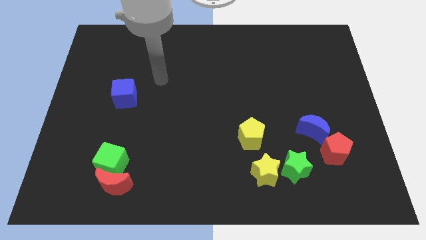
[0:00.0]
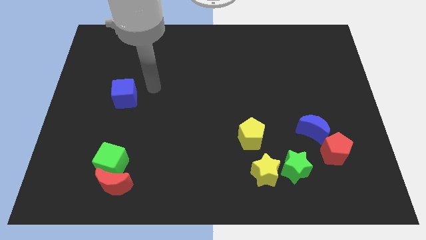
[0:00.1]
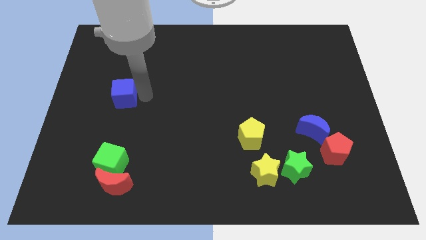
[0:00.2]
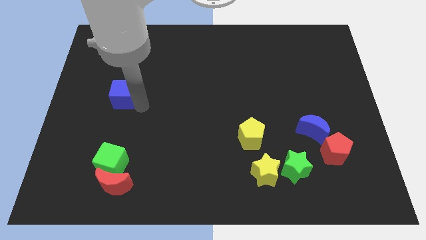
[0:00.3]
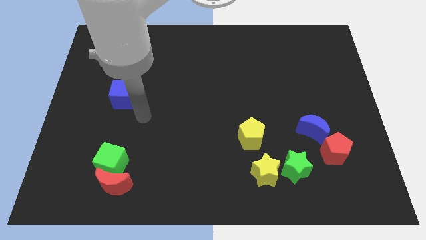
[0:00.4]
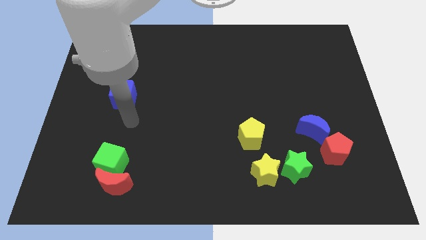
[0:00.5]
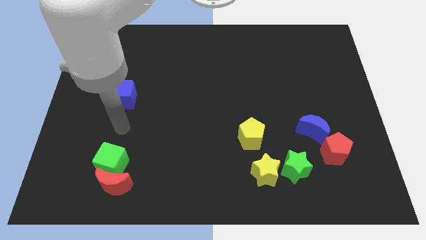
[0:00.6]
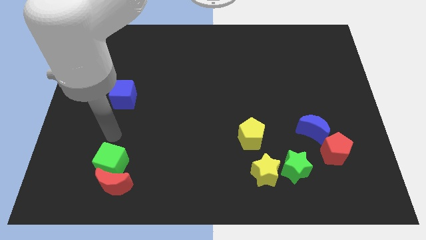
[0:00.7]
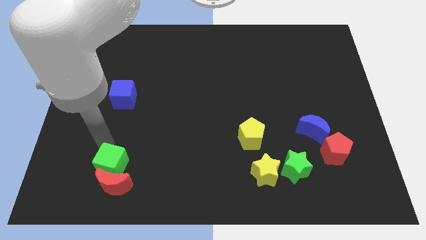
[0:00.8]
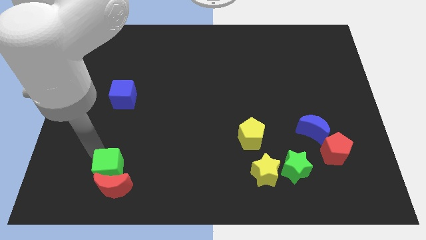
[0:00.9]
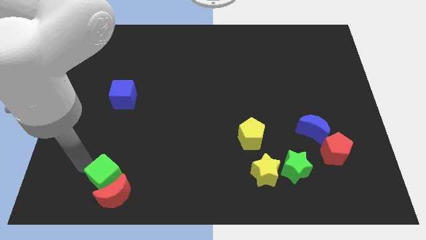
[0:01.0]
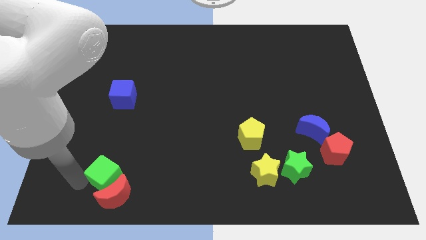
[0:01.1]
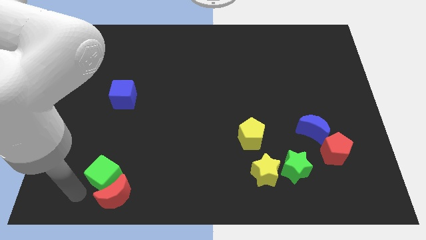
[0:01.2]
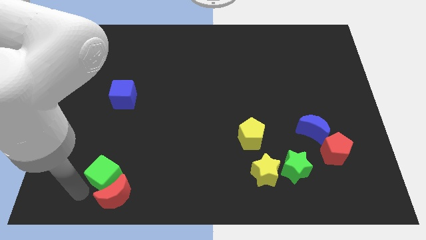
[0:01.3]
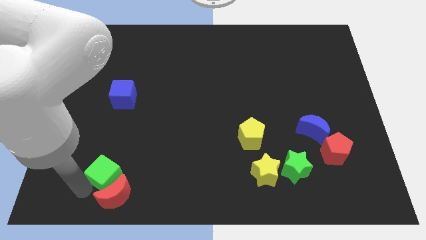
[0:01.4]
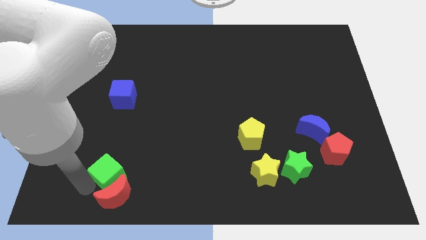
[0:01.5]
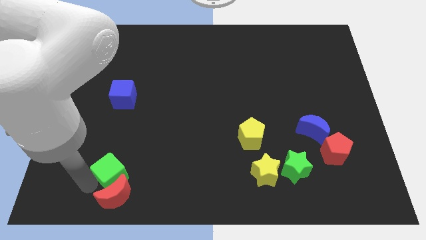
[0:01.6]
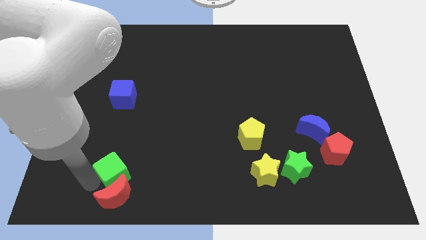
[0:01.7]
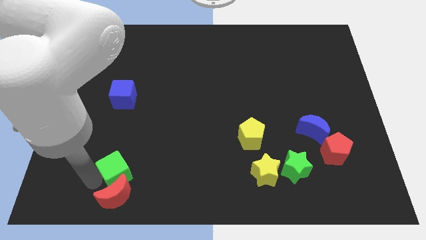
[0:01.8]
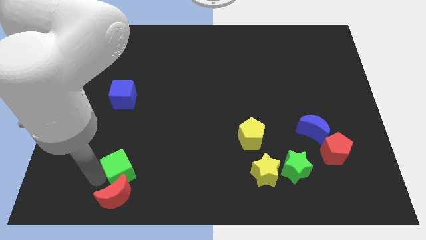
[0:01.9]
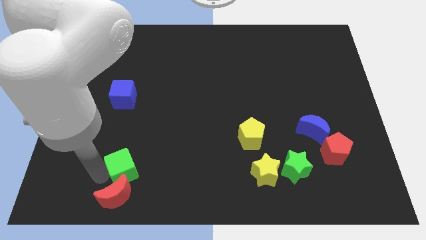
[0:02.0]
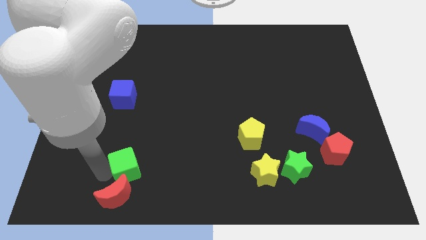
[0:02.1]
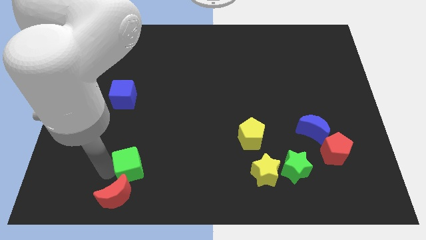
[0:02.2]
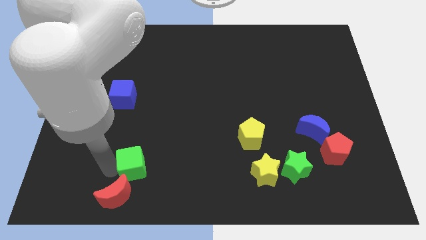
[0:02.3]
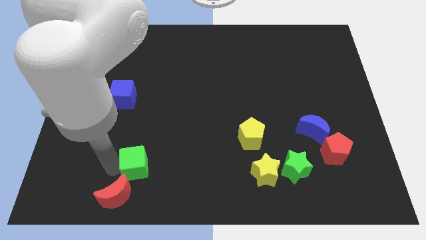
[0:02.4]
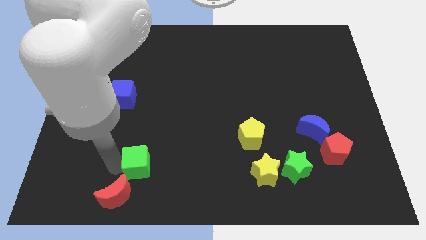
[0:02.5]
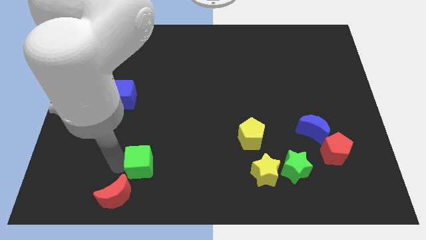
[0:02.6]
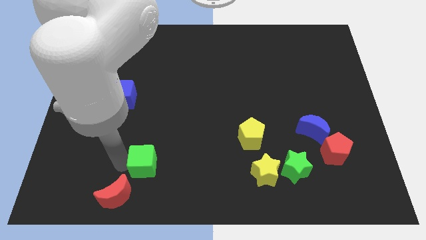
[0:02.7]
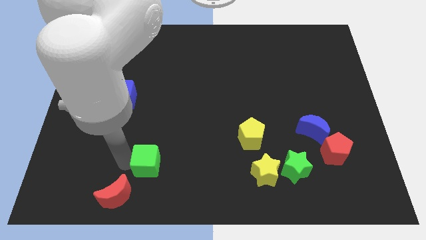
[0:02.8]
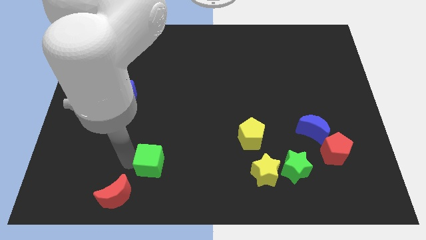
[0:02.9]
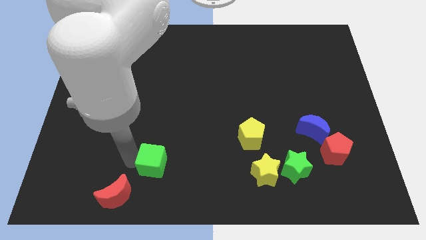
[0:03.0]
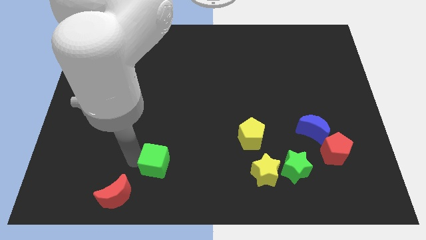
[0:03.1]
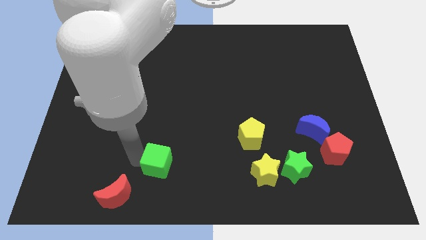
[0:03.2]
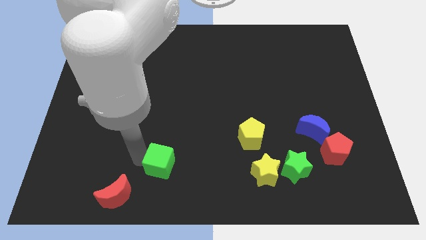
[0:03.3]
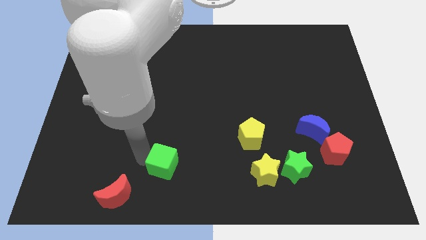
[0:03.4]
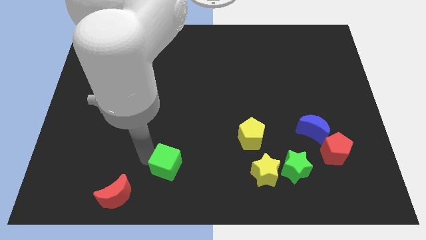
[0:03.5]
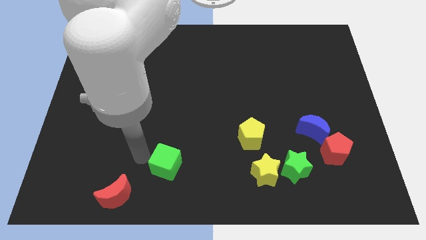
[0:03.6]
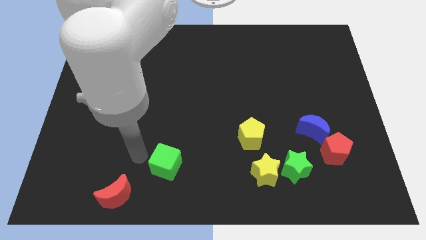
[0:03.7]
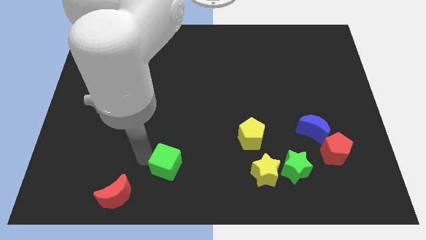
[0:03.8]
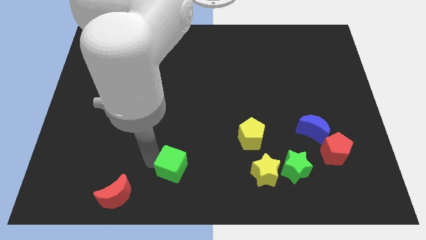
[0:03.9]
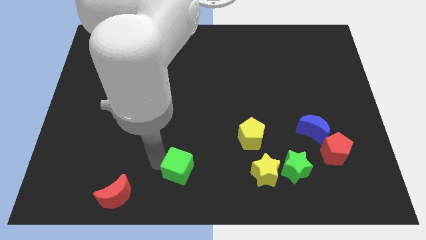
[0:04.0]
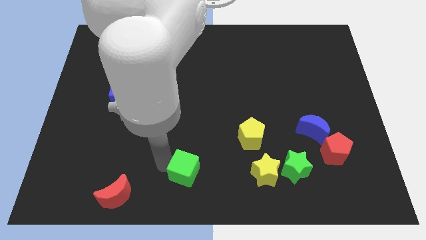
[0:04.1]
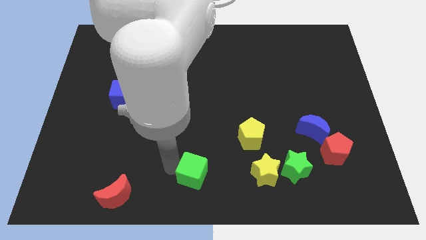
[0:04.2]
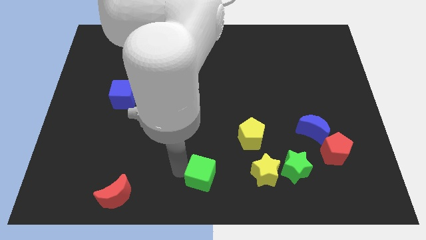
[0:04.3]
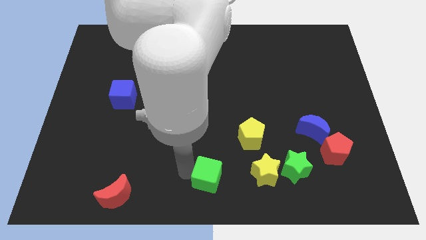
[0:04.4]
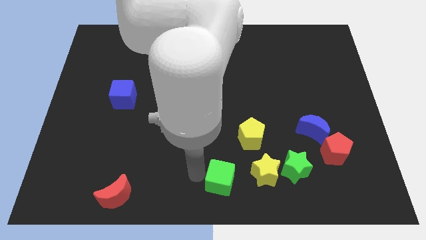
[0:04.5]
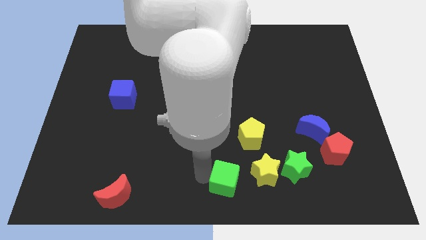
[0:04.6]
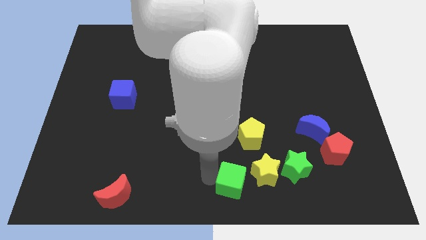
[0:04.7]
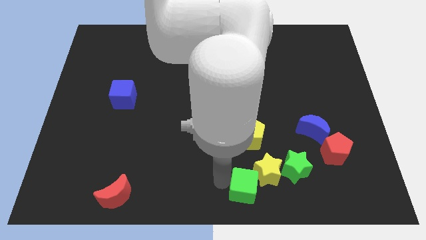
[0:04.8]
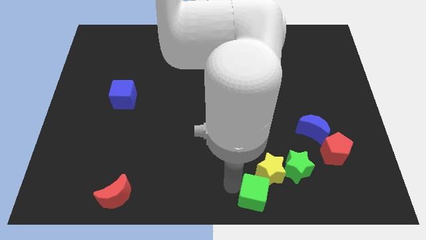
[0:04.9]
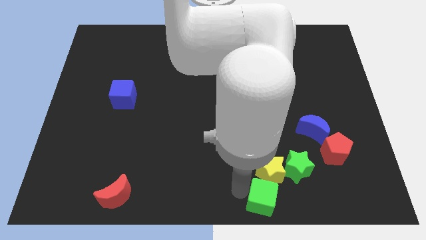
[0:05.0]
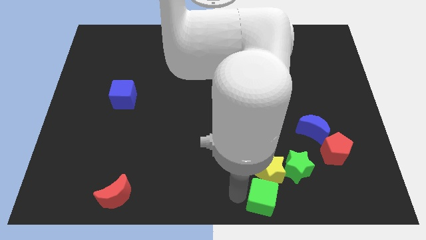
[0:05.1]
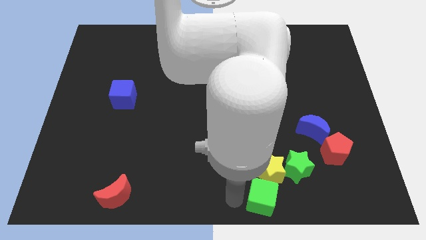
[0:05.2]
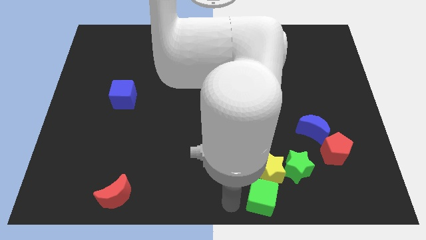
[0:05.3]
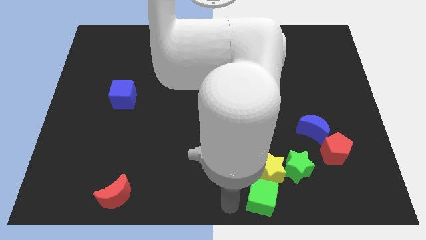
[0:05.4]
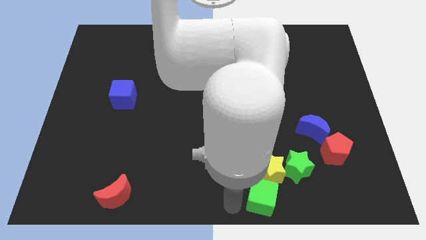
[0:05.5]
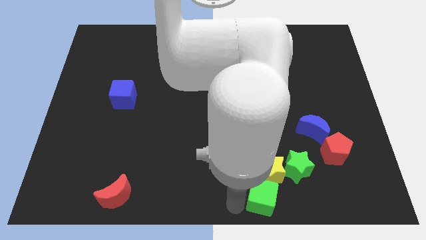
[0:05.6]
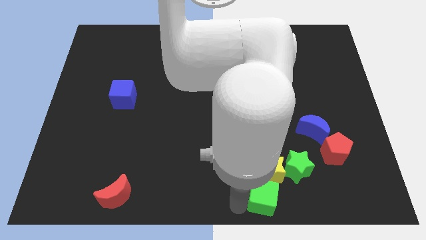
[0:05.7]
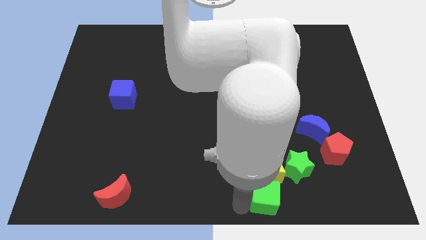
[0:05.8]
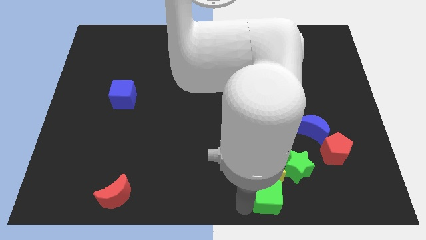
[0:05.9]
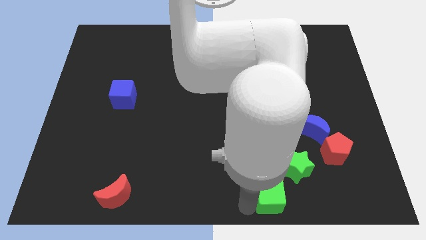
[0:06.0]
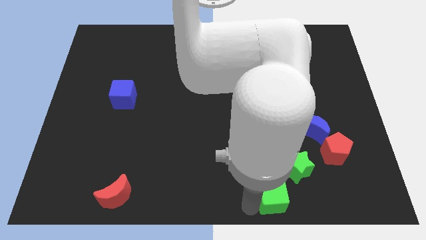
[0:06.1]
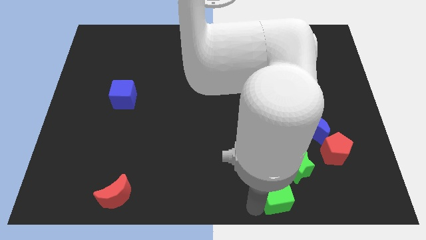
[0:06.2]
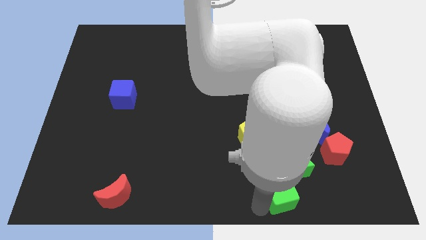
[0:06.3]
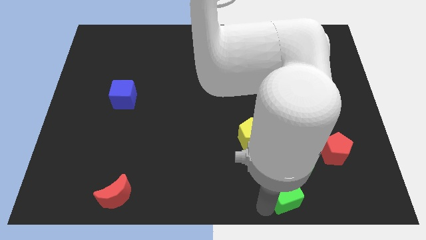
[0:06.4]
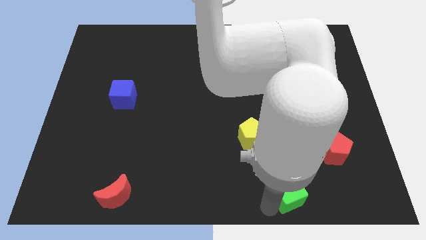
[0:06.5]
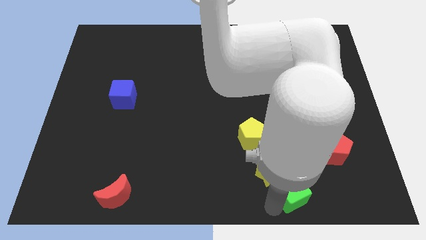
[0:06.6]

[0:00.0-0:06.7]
put the green cube towards the green star
